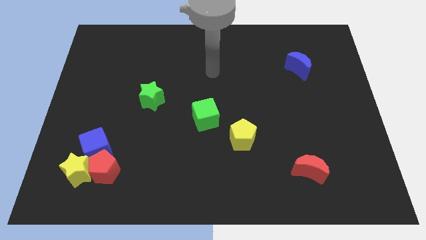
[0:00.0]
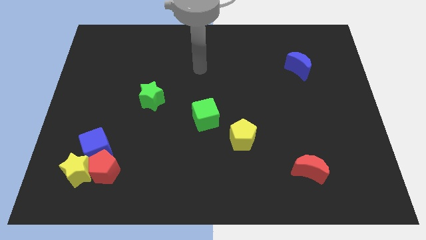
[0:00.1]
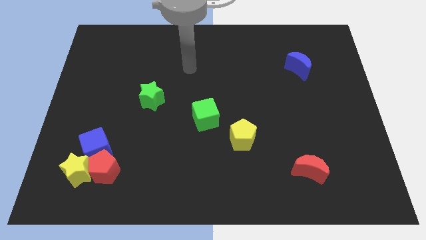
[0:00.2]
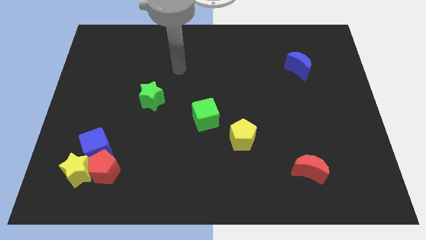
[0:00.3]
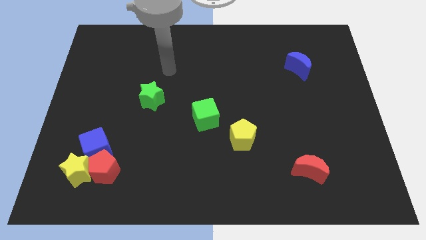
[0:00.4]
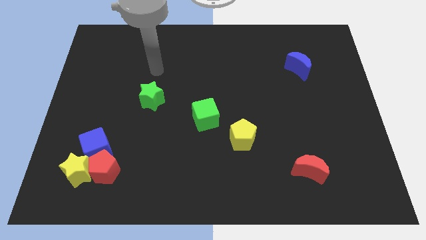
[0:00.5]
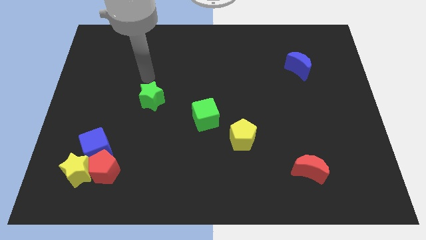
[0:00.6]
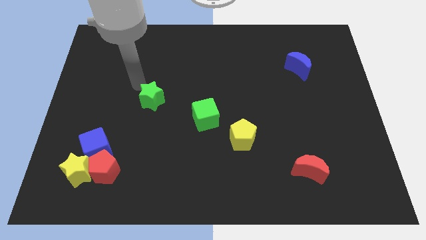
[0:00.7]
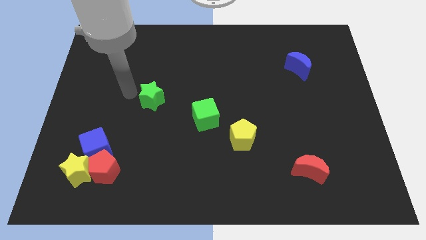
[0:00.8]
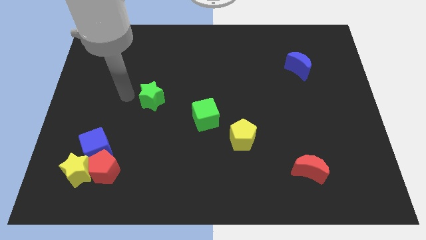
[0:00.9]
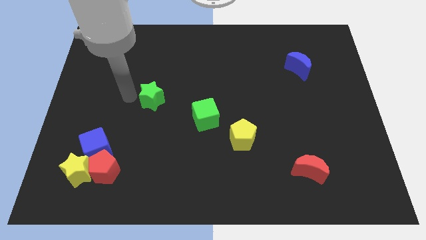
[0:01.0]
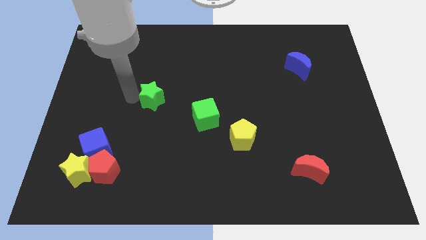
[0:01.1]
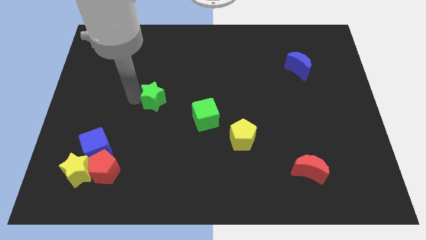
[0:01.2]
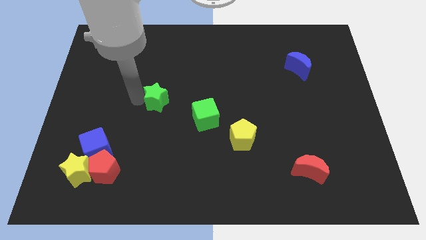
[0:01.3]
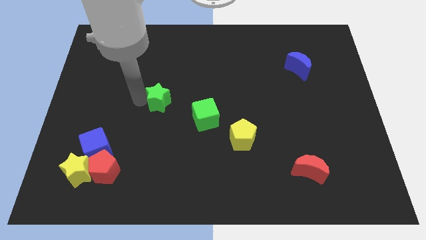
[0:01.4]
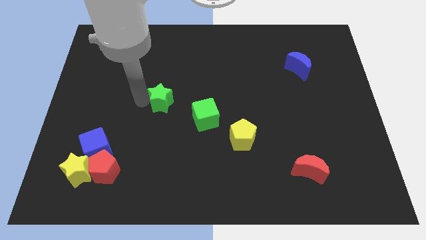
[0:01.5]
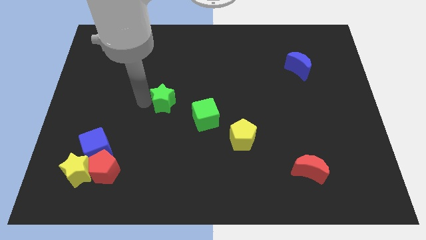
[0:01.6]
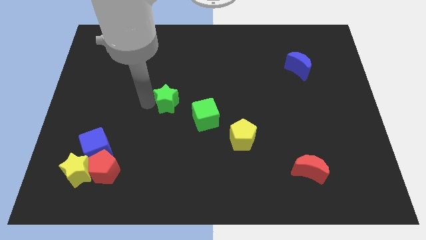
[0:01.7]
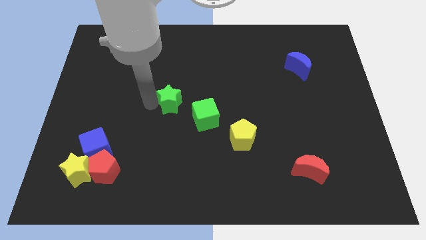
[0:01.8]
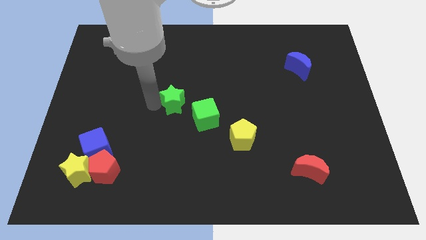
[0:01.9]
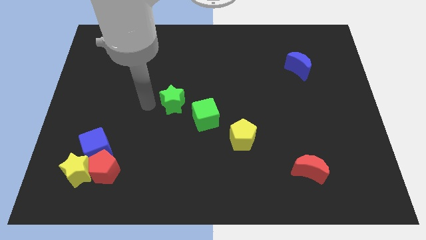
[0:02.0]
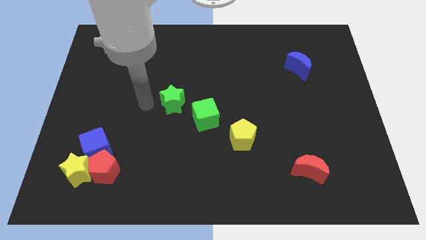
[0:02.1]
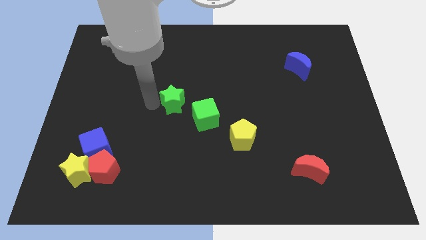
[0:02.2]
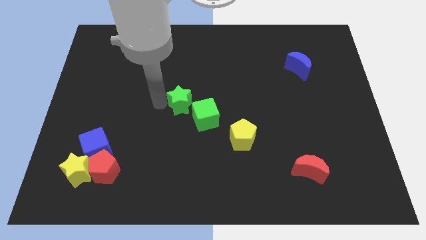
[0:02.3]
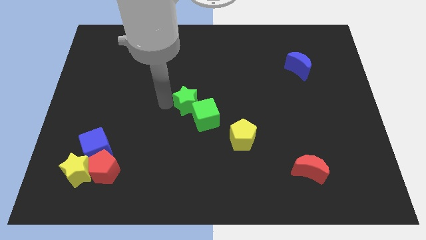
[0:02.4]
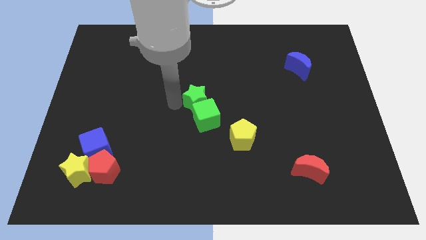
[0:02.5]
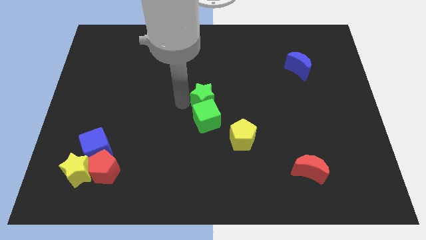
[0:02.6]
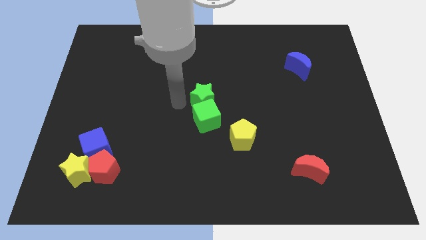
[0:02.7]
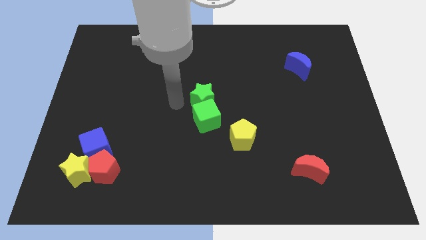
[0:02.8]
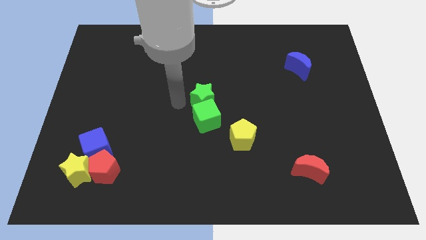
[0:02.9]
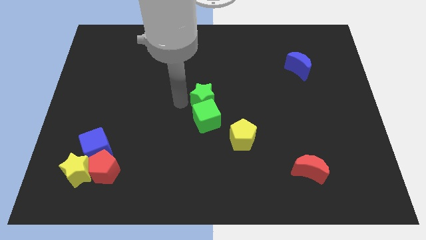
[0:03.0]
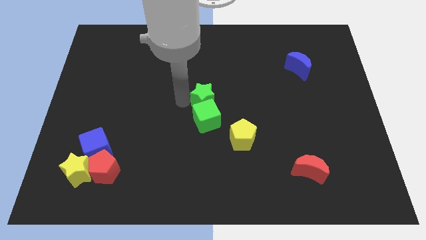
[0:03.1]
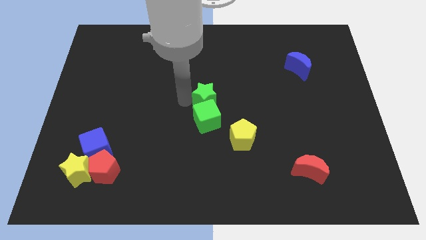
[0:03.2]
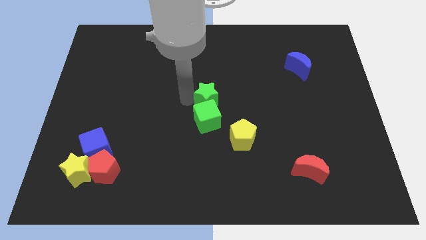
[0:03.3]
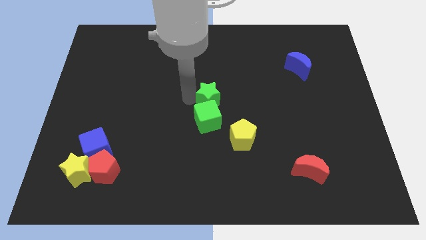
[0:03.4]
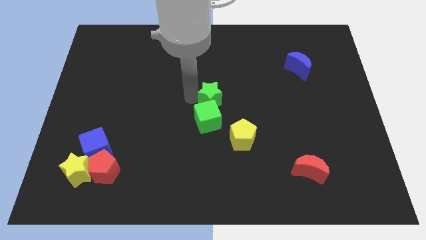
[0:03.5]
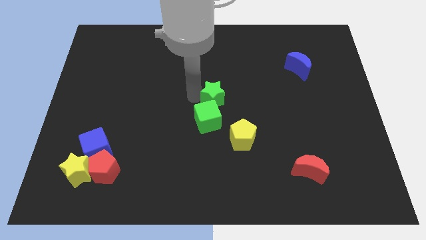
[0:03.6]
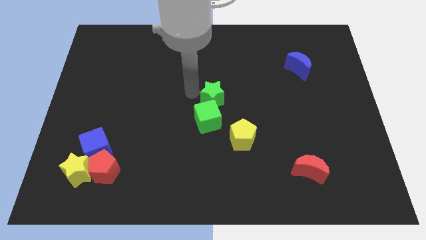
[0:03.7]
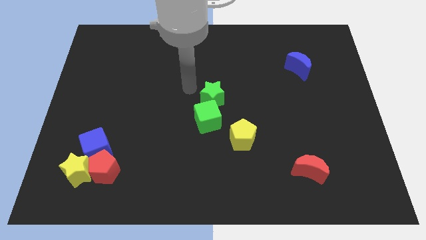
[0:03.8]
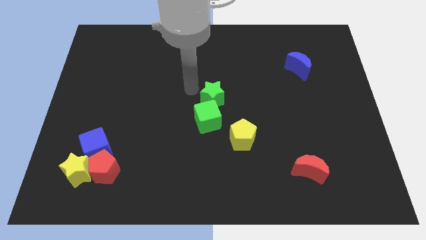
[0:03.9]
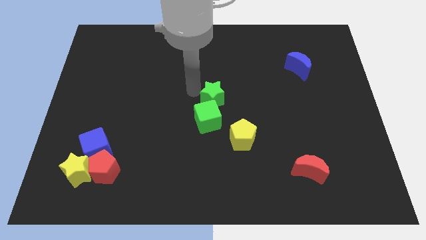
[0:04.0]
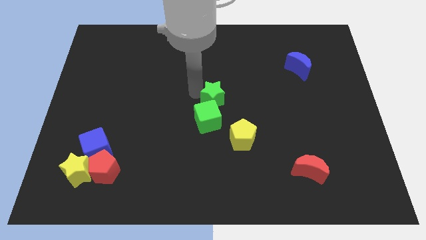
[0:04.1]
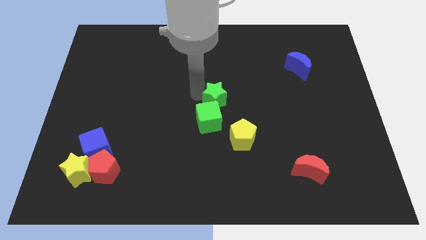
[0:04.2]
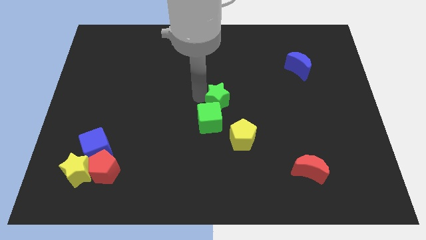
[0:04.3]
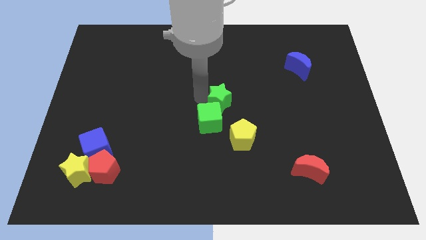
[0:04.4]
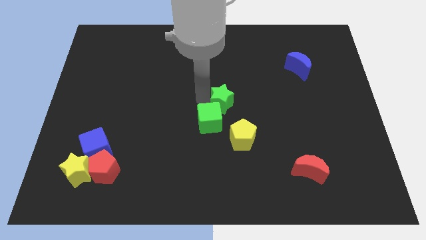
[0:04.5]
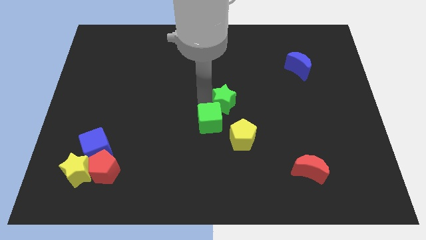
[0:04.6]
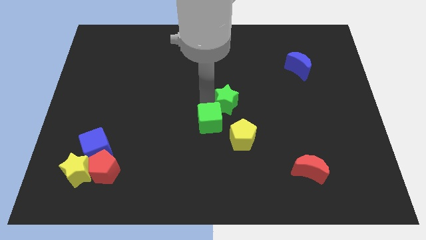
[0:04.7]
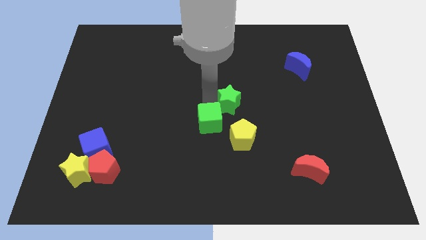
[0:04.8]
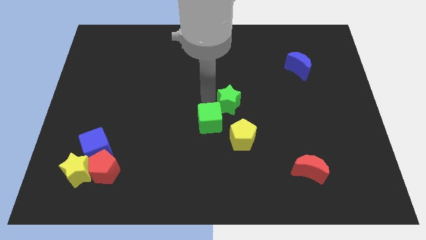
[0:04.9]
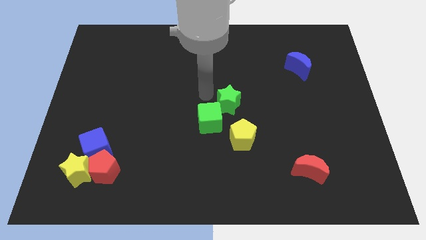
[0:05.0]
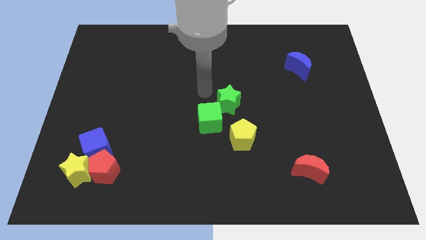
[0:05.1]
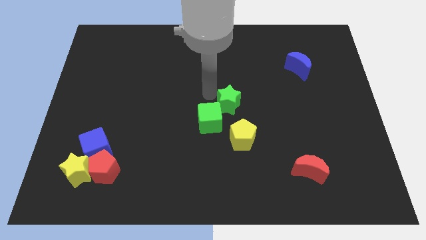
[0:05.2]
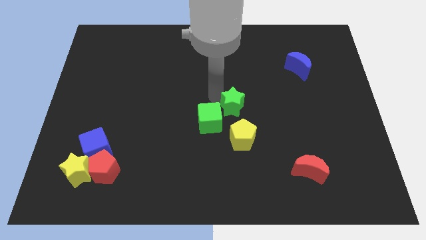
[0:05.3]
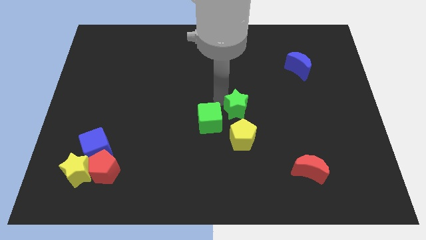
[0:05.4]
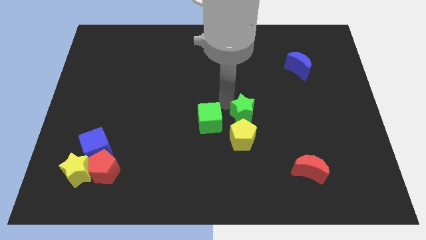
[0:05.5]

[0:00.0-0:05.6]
put the green star diagonally up and to the right of the yellow pentagon

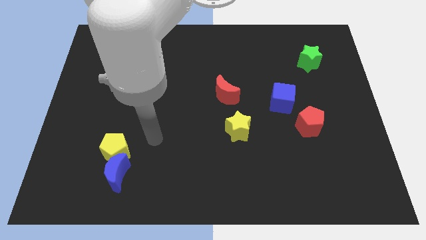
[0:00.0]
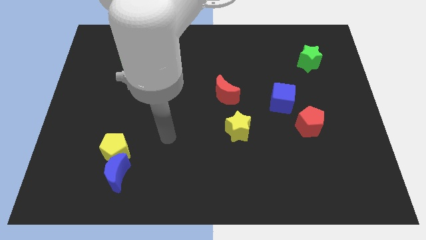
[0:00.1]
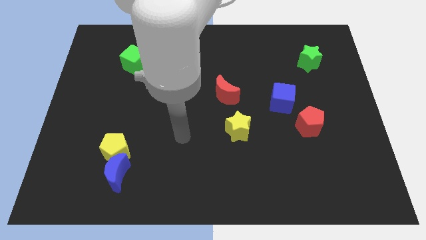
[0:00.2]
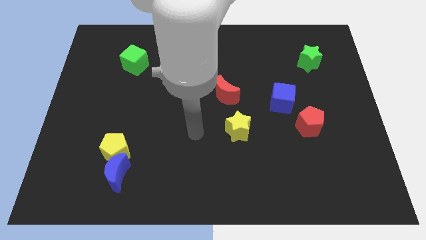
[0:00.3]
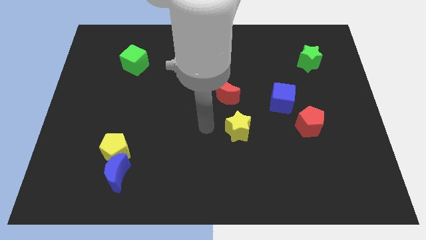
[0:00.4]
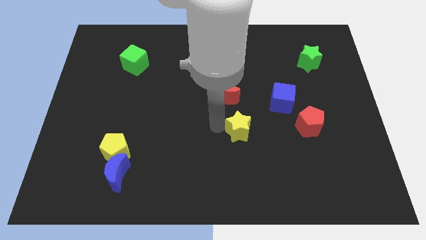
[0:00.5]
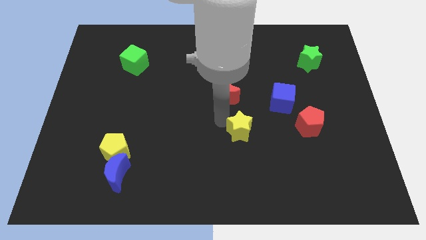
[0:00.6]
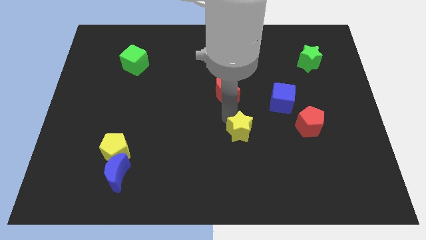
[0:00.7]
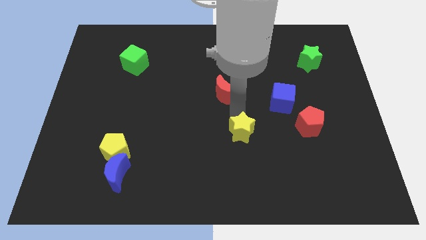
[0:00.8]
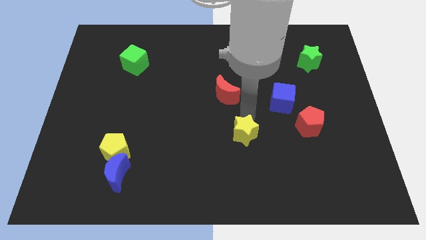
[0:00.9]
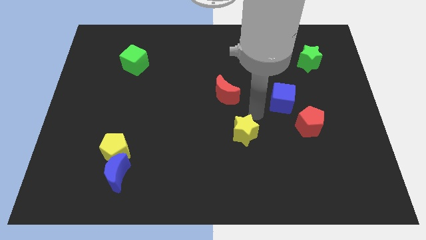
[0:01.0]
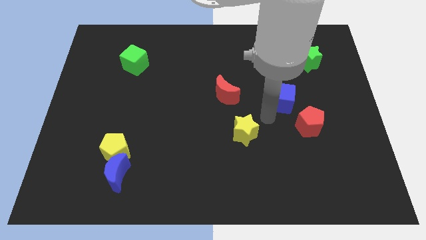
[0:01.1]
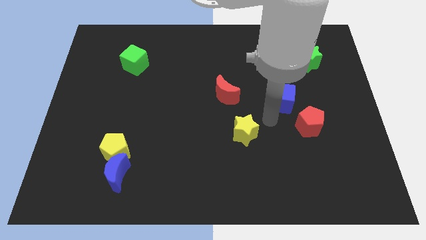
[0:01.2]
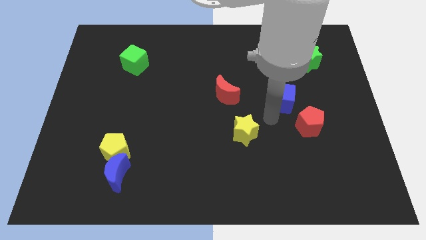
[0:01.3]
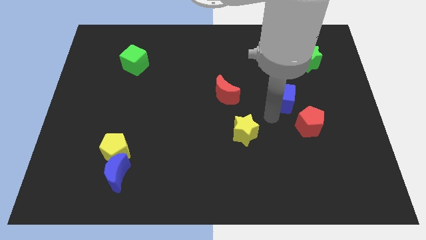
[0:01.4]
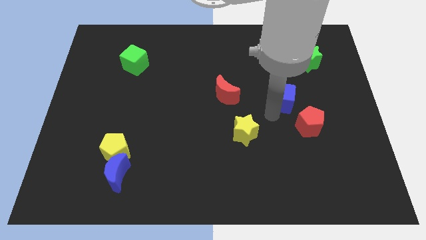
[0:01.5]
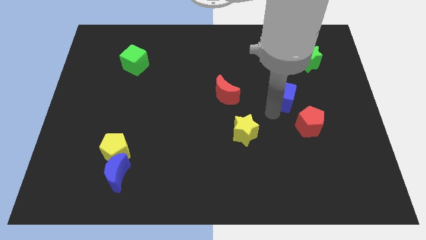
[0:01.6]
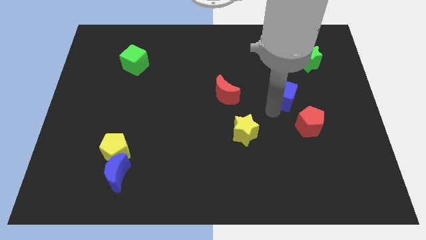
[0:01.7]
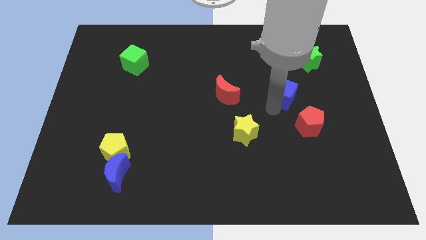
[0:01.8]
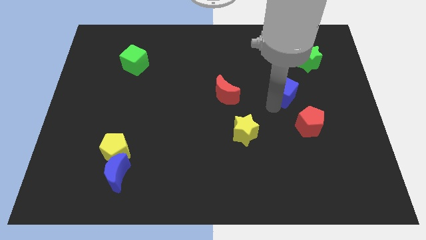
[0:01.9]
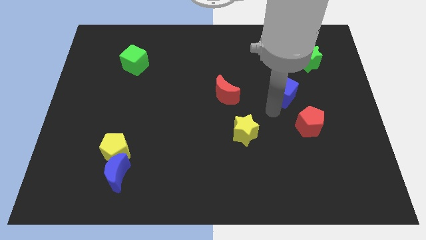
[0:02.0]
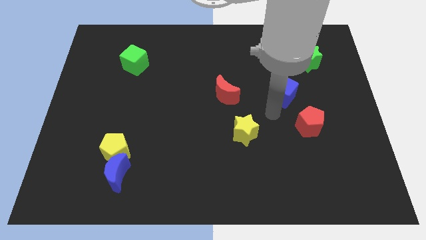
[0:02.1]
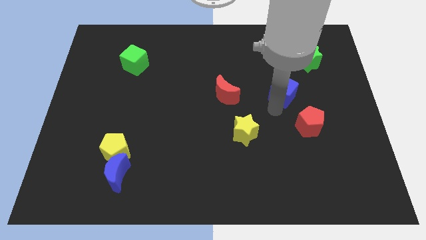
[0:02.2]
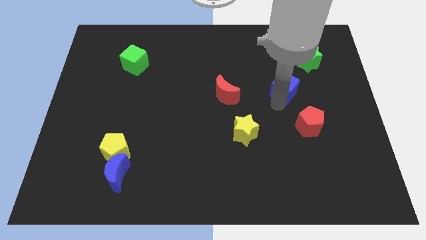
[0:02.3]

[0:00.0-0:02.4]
push the blue cube to the bottom left side of the green star
